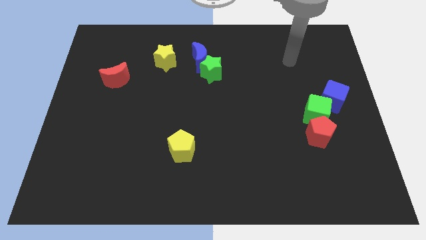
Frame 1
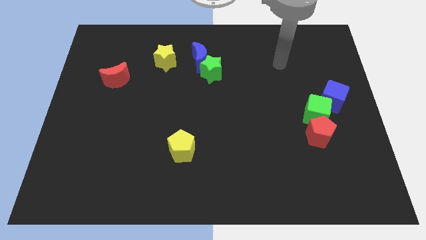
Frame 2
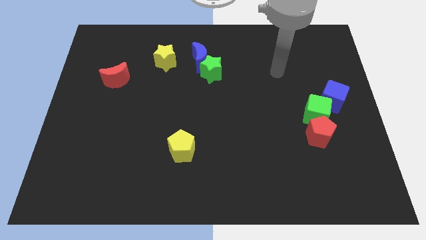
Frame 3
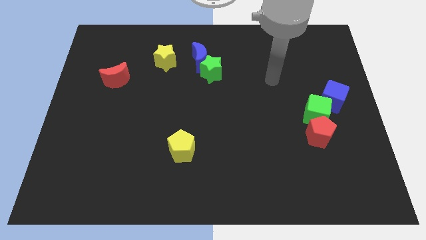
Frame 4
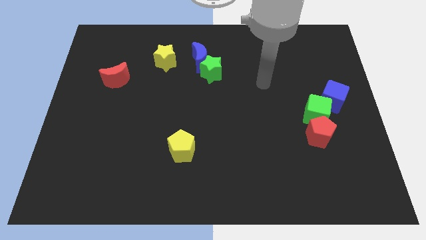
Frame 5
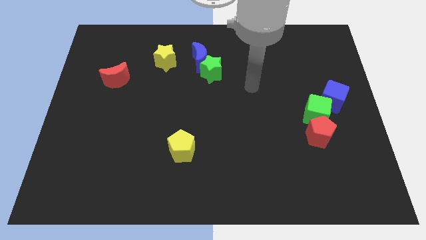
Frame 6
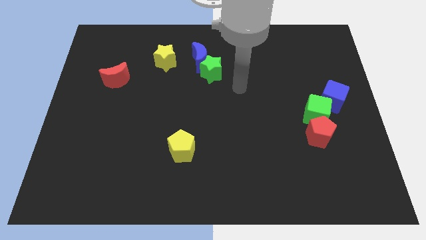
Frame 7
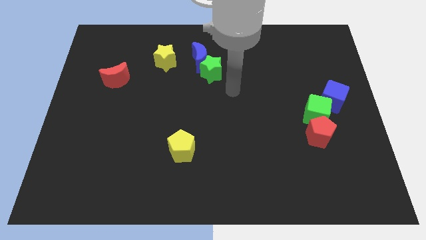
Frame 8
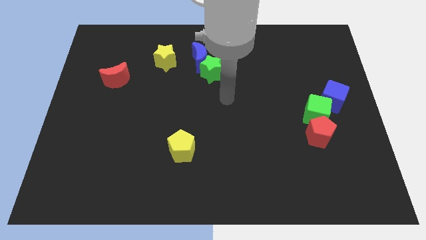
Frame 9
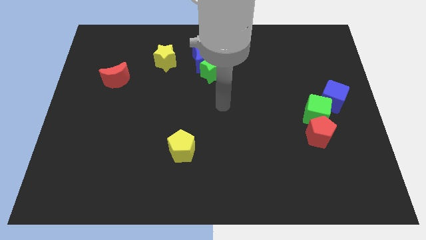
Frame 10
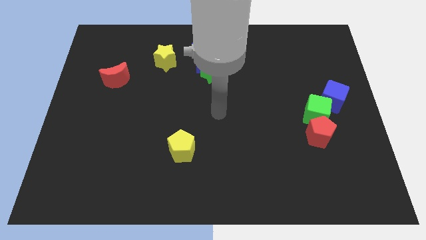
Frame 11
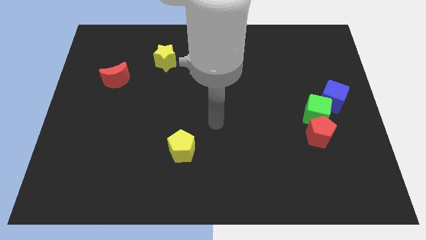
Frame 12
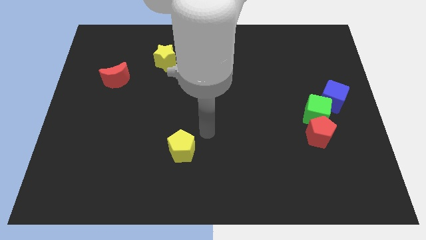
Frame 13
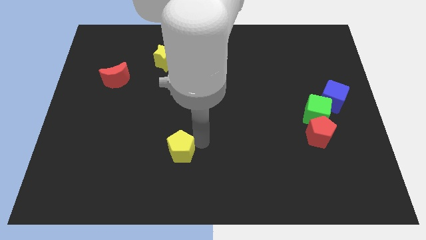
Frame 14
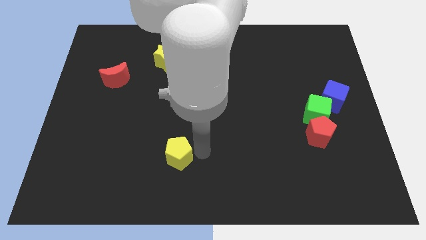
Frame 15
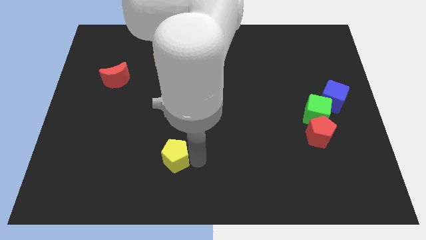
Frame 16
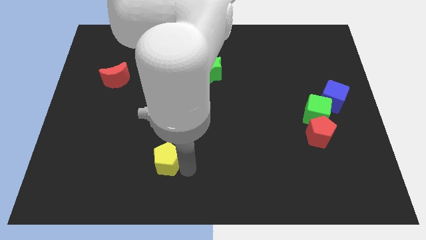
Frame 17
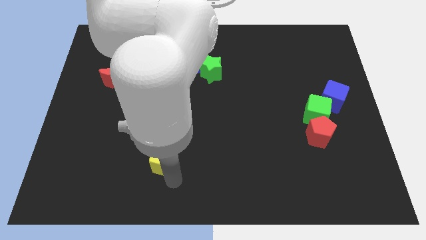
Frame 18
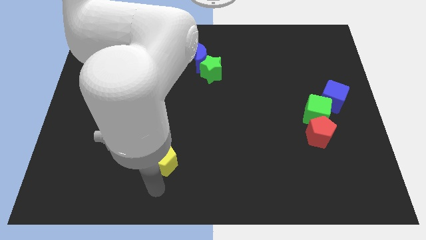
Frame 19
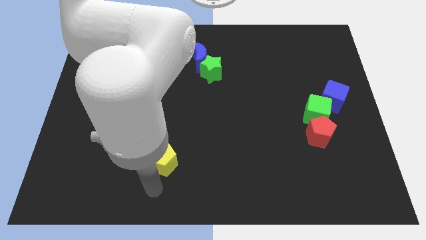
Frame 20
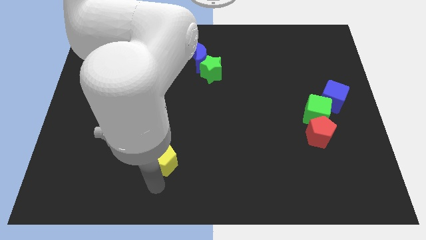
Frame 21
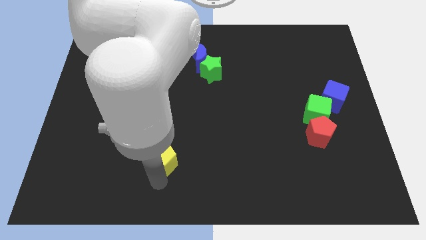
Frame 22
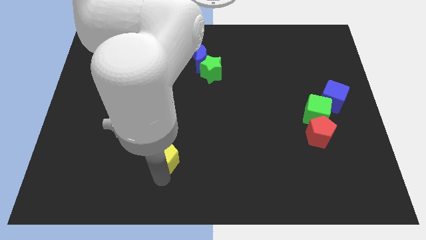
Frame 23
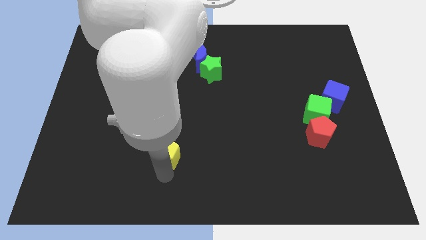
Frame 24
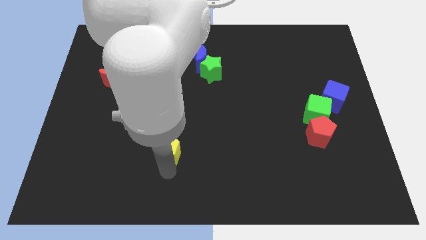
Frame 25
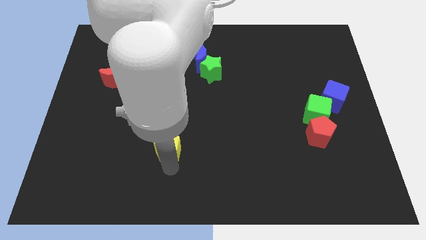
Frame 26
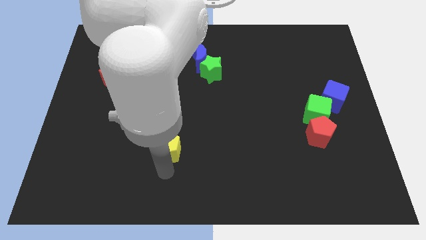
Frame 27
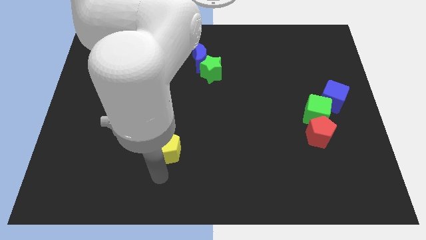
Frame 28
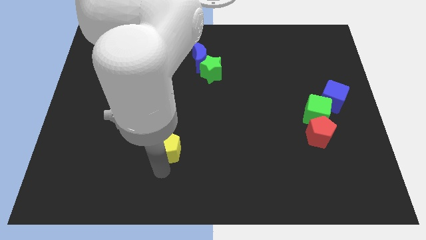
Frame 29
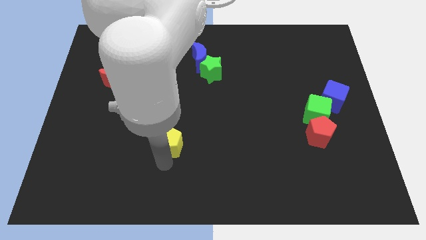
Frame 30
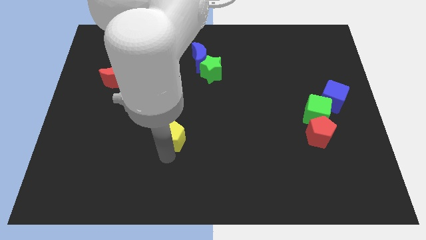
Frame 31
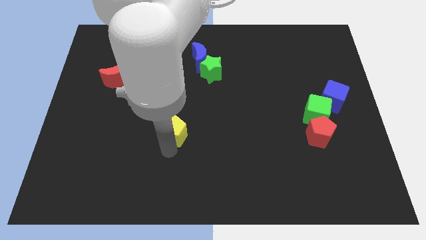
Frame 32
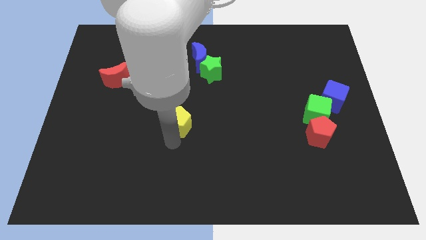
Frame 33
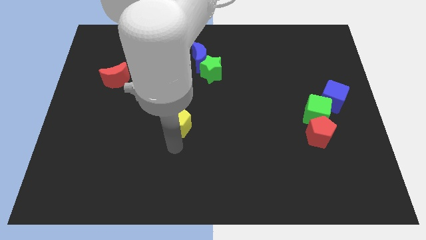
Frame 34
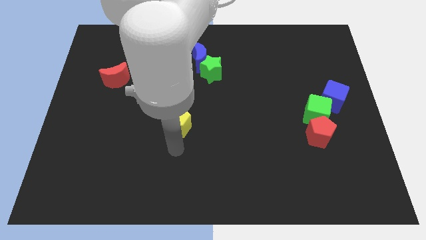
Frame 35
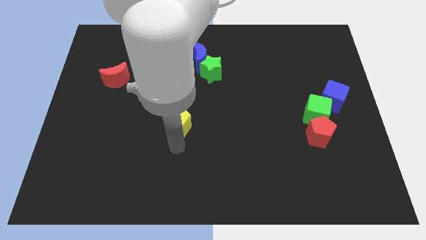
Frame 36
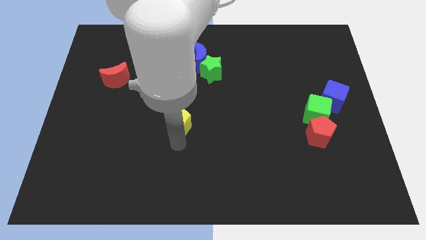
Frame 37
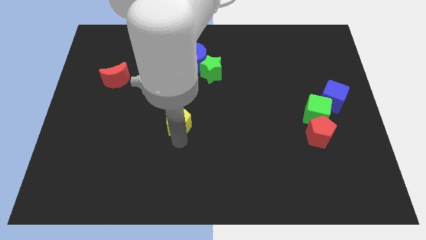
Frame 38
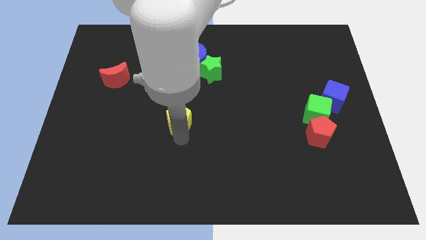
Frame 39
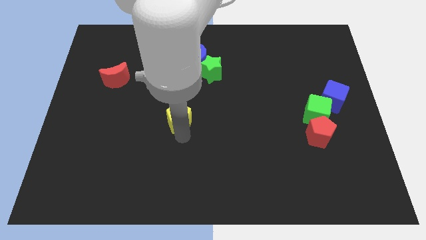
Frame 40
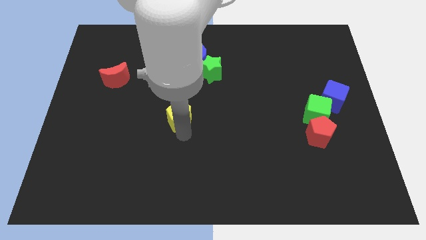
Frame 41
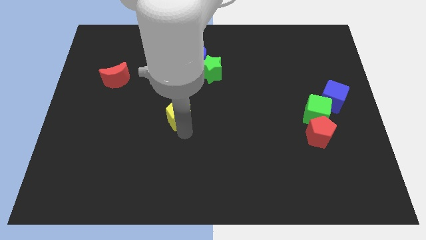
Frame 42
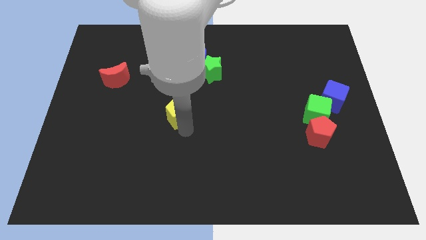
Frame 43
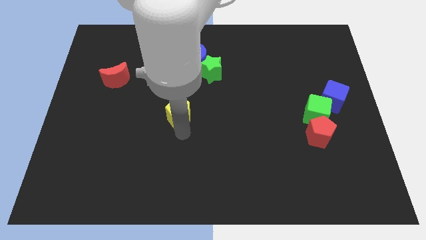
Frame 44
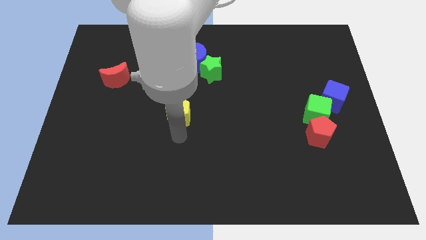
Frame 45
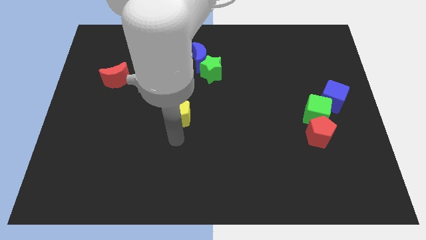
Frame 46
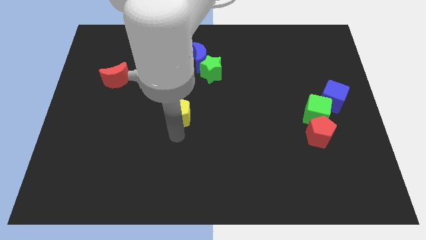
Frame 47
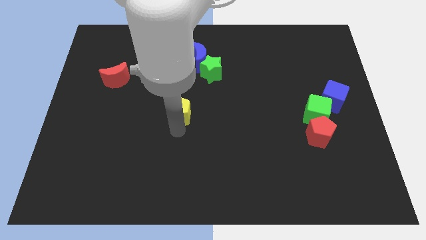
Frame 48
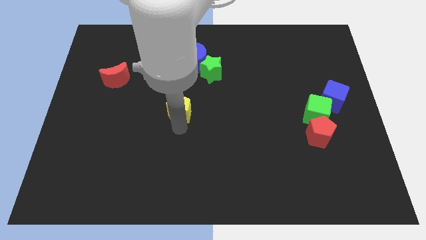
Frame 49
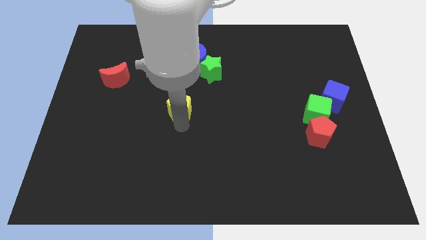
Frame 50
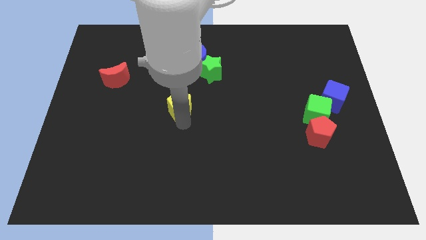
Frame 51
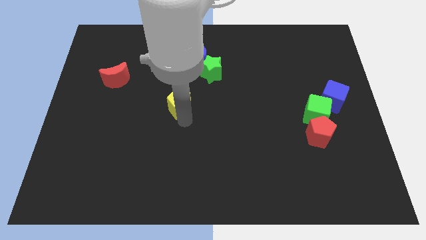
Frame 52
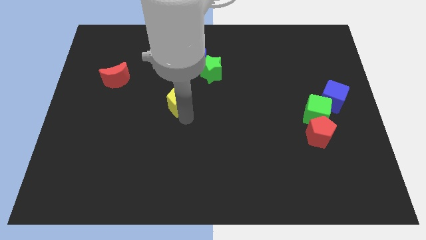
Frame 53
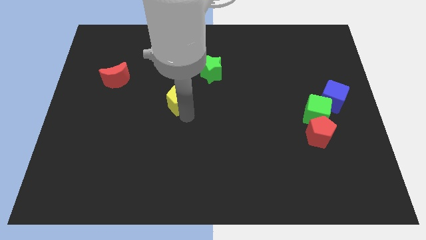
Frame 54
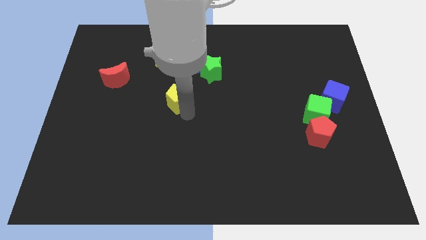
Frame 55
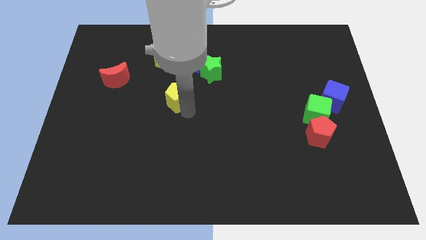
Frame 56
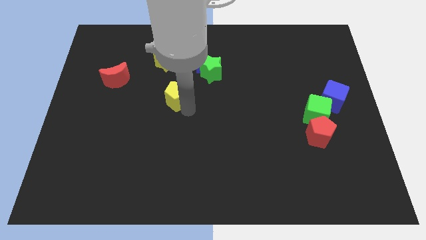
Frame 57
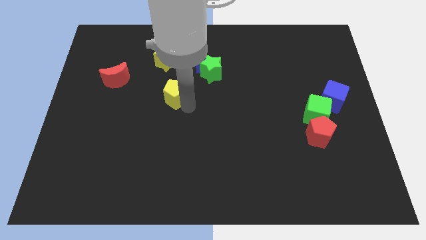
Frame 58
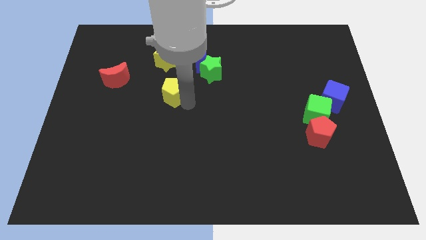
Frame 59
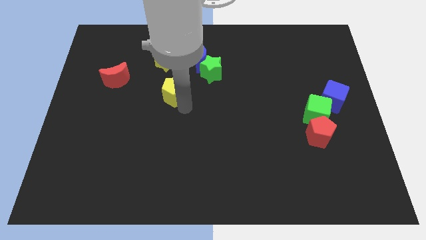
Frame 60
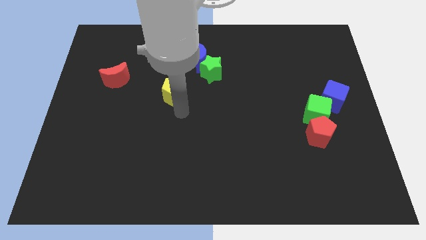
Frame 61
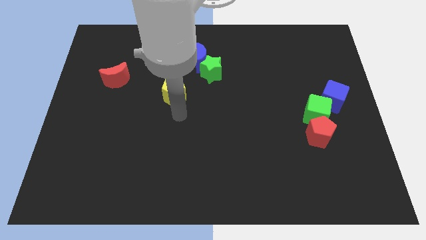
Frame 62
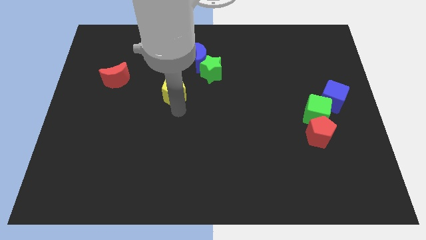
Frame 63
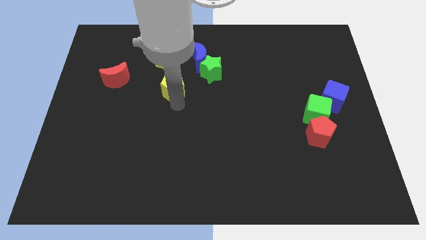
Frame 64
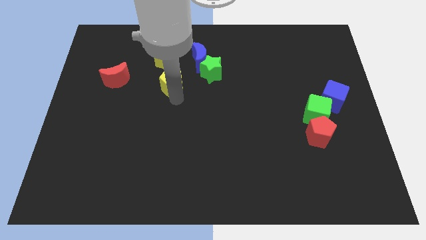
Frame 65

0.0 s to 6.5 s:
push the yellow pentagon just left of the green star
